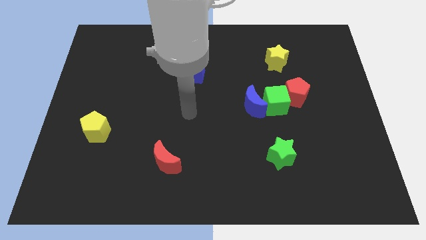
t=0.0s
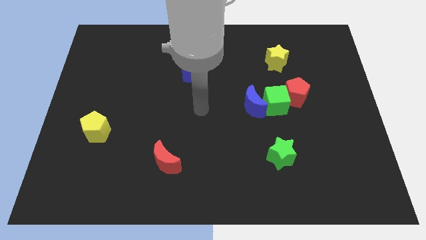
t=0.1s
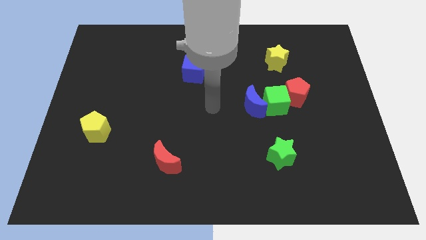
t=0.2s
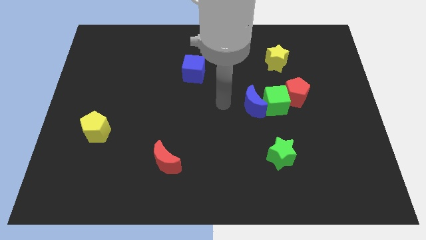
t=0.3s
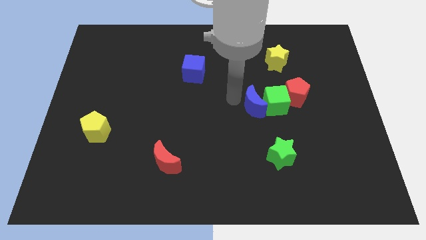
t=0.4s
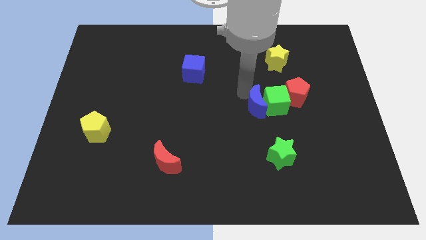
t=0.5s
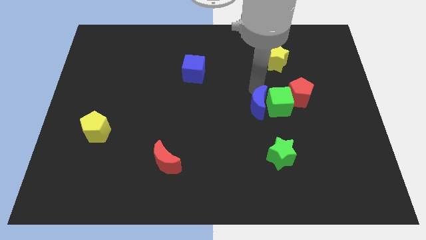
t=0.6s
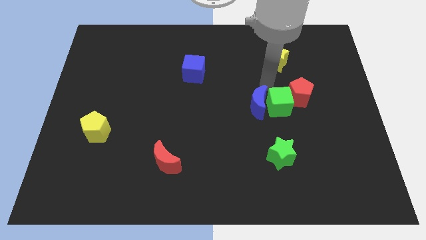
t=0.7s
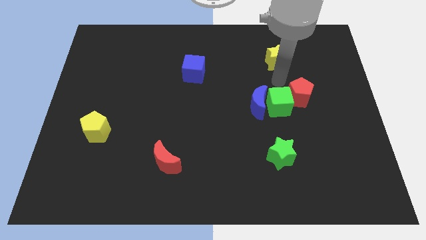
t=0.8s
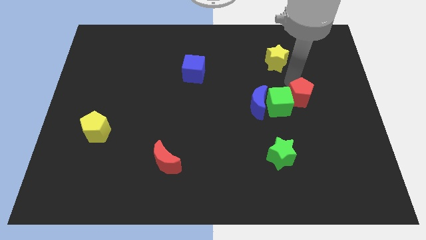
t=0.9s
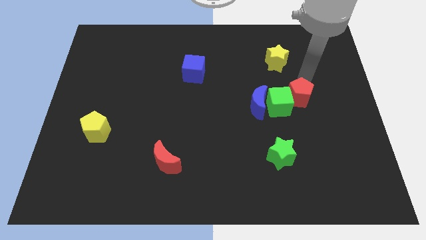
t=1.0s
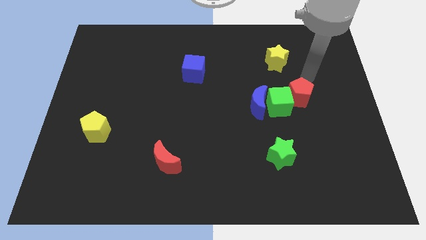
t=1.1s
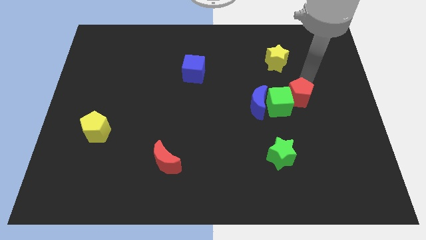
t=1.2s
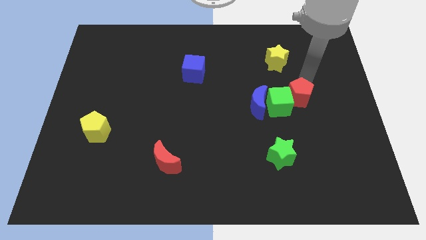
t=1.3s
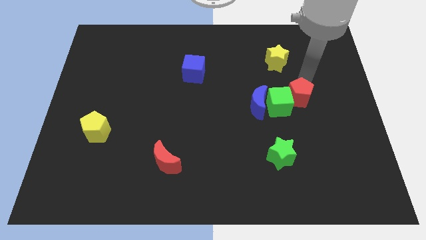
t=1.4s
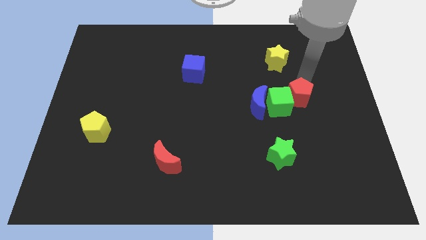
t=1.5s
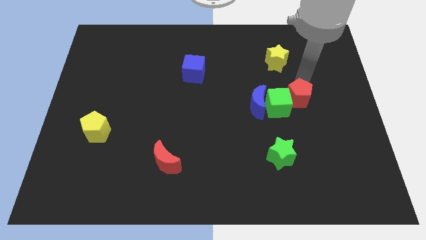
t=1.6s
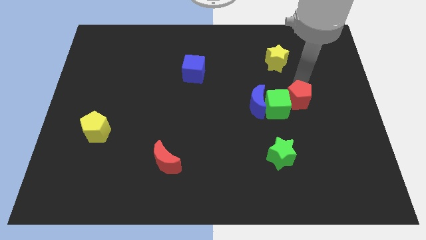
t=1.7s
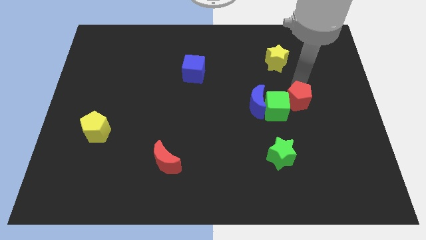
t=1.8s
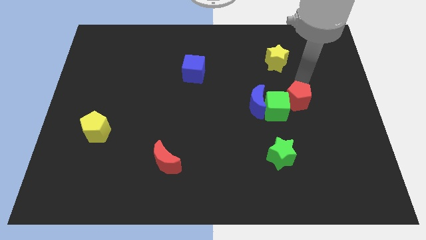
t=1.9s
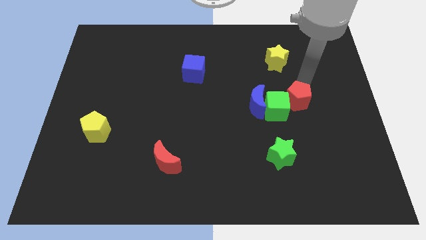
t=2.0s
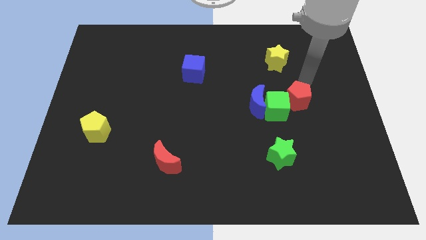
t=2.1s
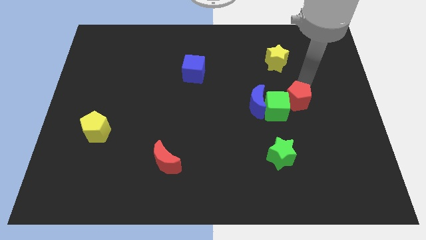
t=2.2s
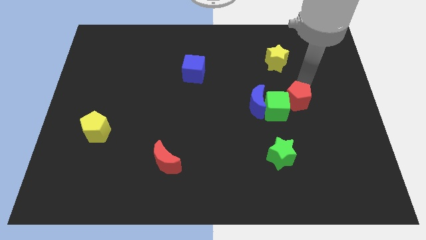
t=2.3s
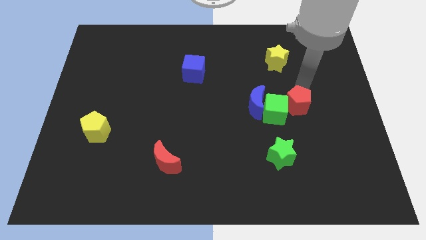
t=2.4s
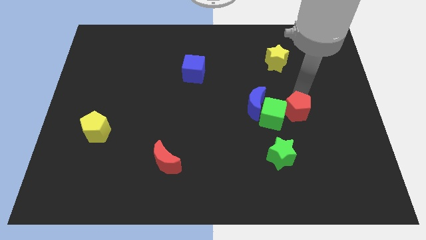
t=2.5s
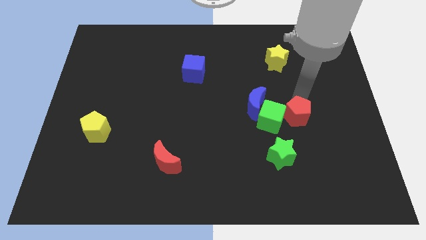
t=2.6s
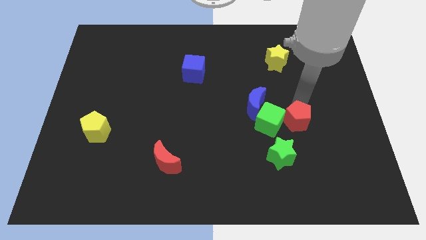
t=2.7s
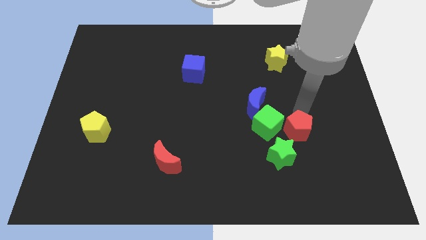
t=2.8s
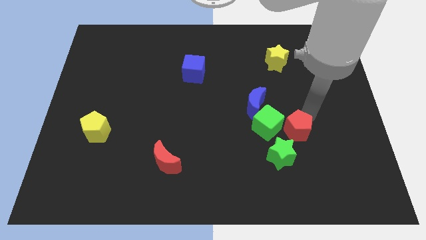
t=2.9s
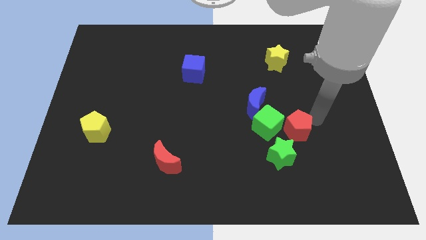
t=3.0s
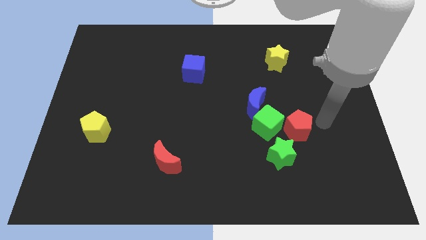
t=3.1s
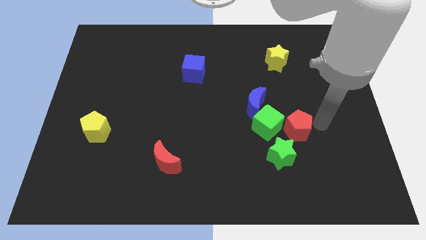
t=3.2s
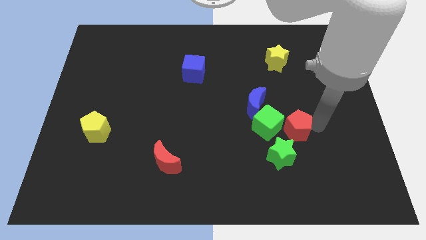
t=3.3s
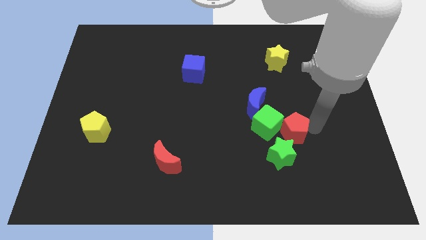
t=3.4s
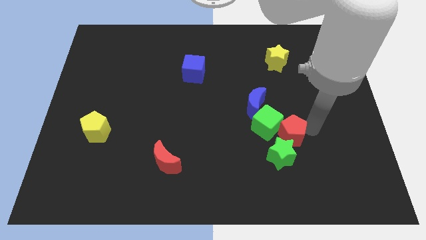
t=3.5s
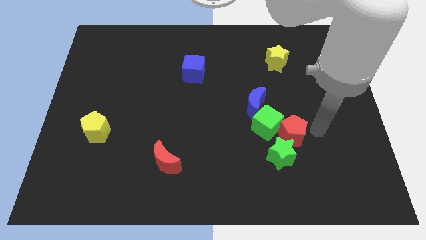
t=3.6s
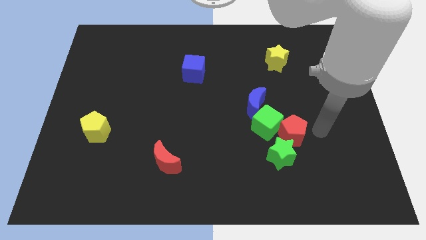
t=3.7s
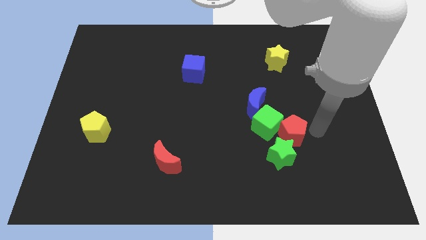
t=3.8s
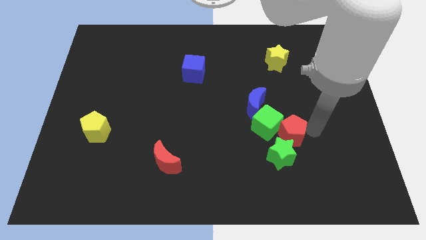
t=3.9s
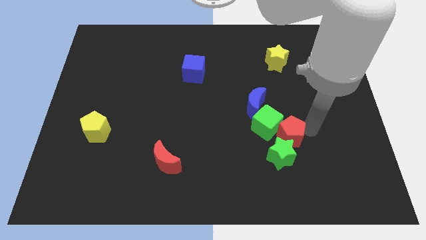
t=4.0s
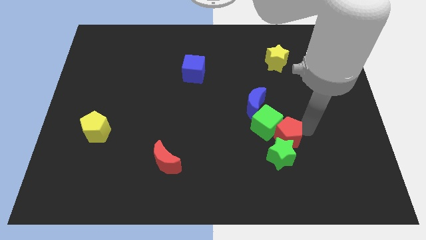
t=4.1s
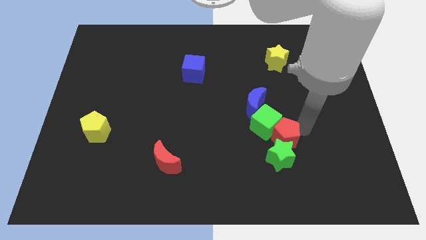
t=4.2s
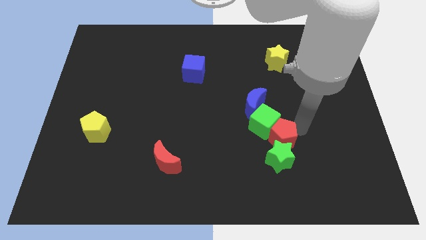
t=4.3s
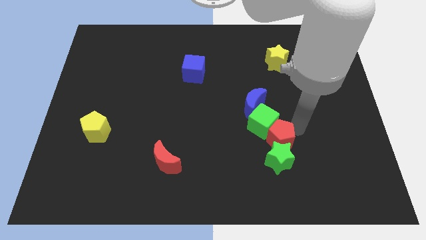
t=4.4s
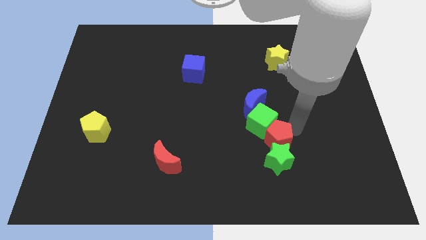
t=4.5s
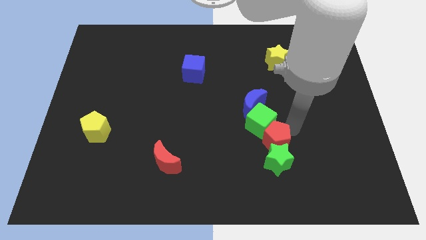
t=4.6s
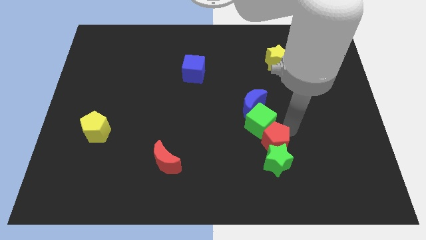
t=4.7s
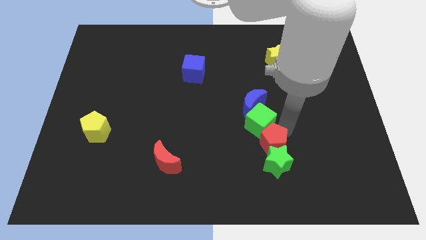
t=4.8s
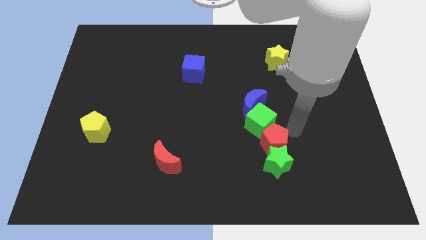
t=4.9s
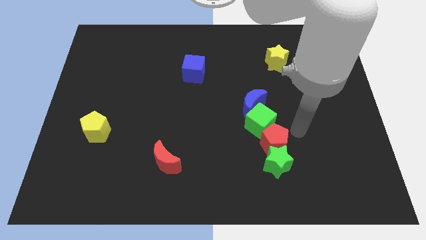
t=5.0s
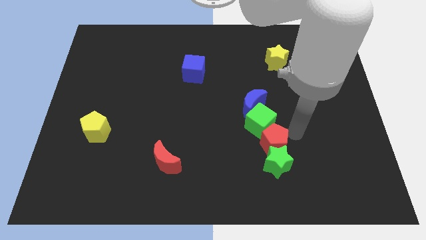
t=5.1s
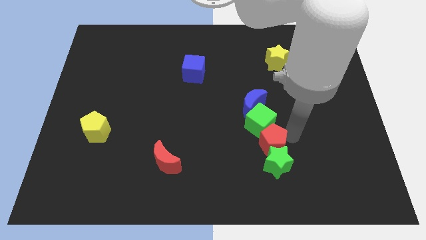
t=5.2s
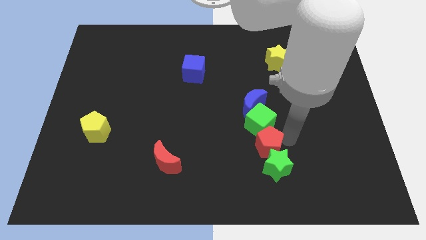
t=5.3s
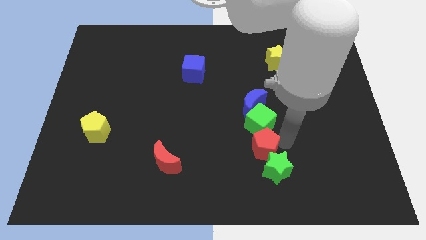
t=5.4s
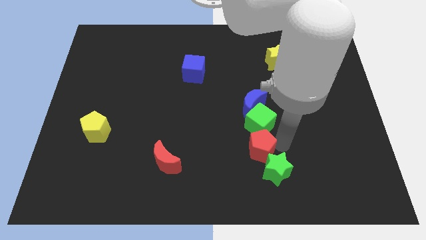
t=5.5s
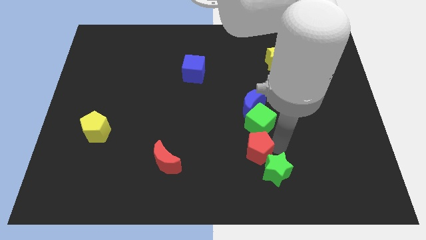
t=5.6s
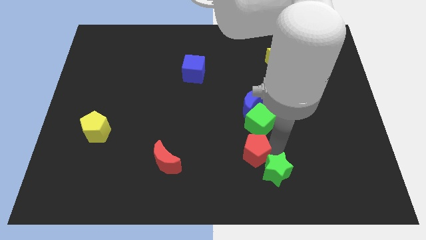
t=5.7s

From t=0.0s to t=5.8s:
move the red pentagon just left of the green star

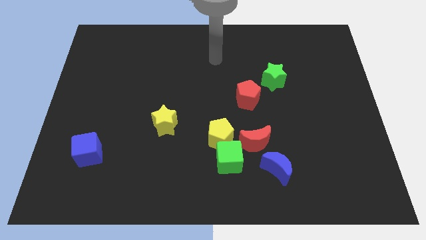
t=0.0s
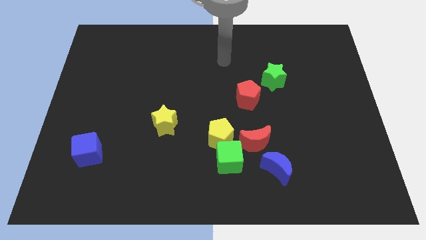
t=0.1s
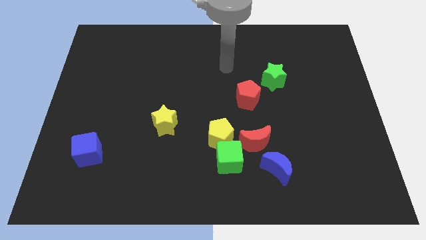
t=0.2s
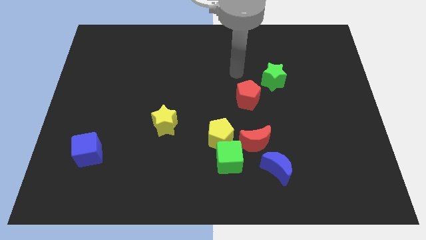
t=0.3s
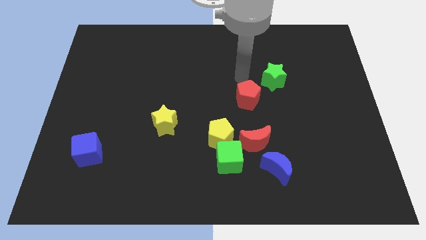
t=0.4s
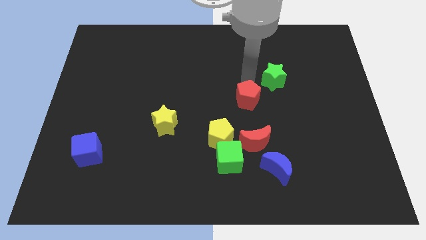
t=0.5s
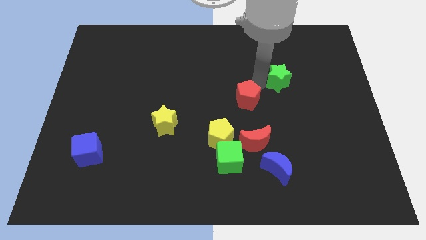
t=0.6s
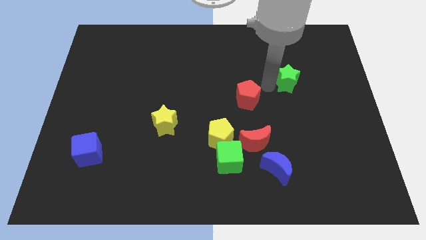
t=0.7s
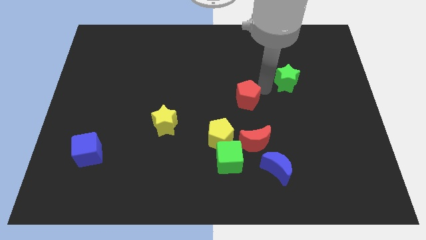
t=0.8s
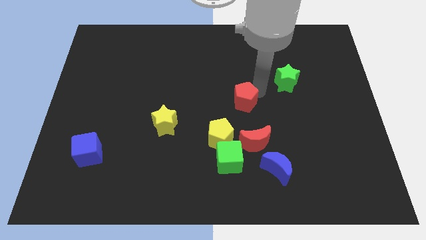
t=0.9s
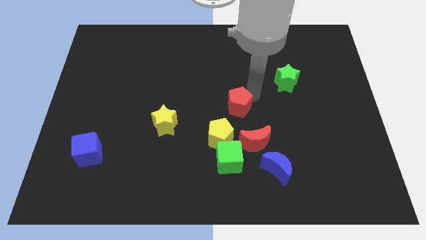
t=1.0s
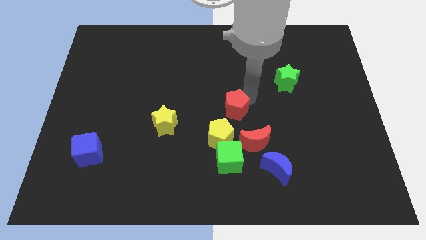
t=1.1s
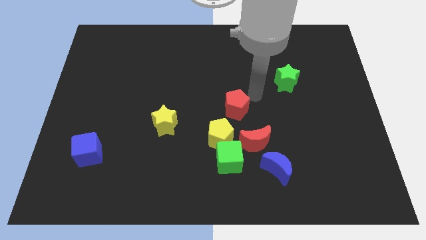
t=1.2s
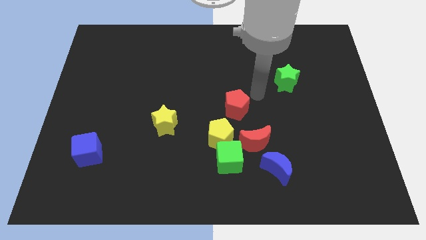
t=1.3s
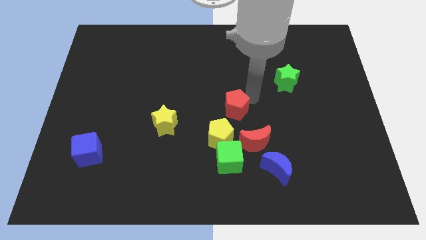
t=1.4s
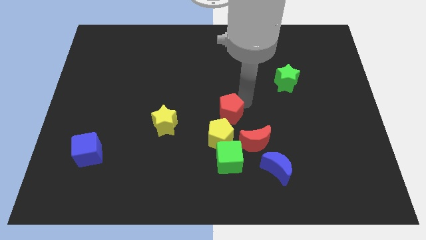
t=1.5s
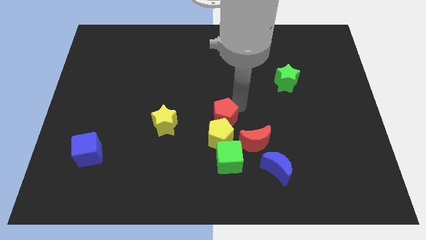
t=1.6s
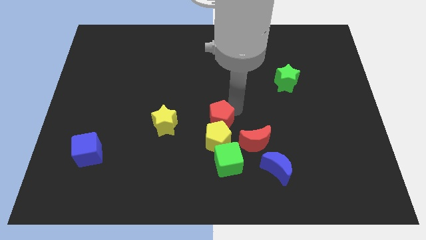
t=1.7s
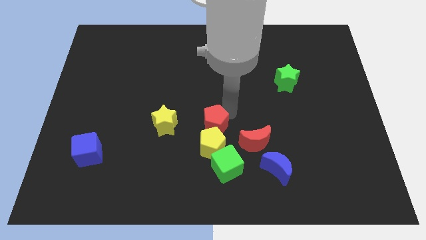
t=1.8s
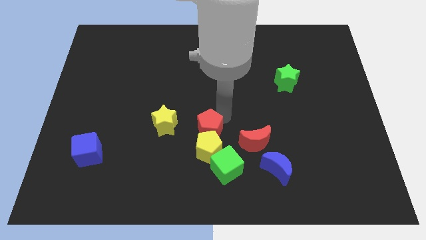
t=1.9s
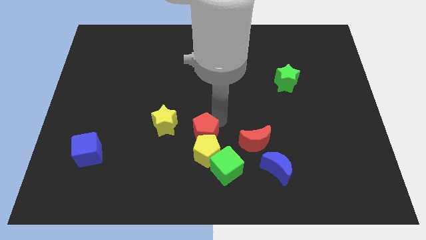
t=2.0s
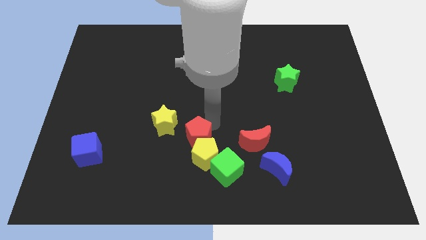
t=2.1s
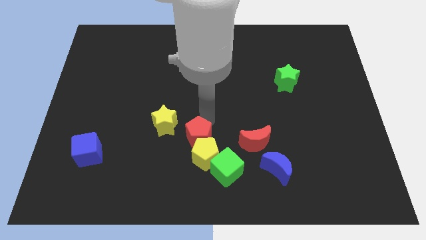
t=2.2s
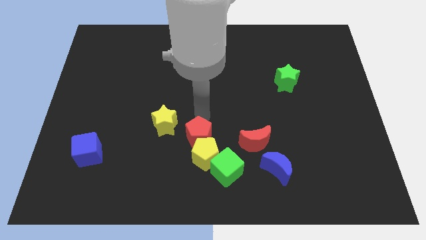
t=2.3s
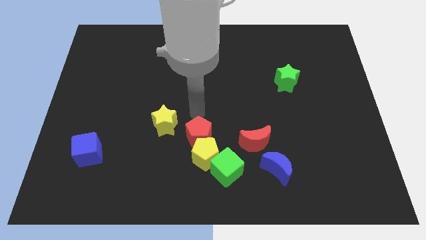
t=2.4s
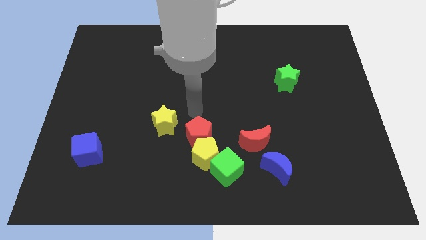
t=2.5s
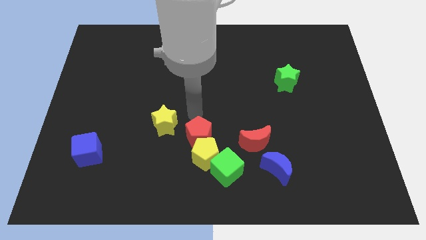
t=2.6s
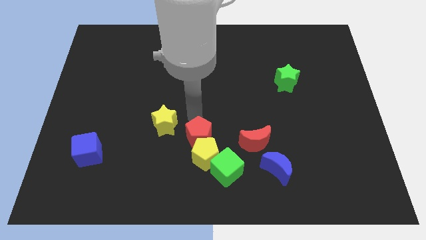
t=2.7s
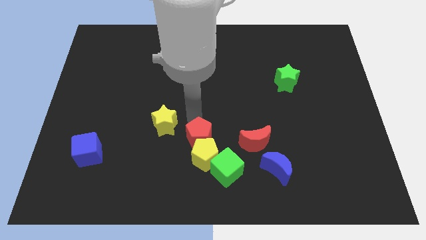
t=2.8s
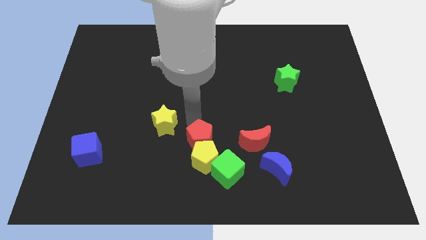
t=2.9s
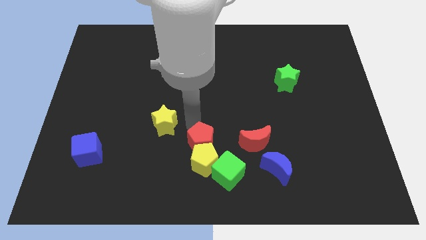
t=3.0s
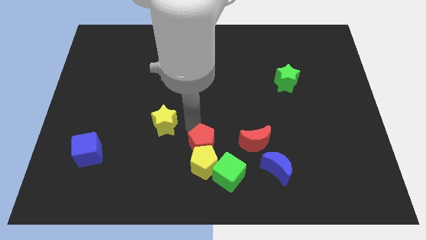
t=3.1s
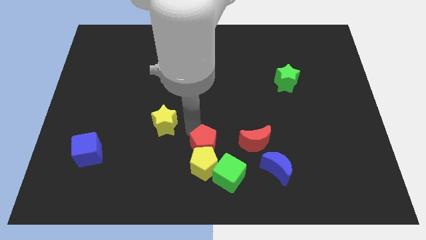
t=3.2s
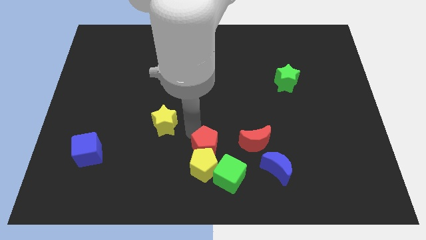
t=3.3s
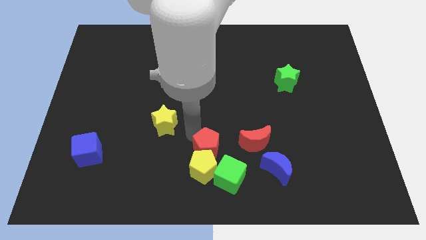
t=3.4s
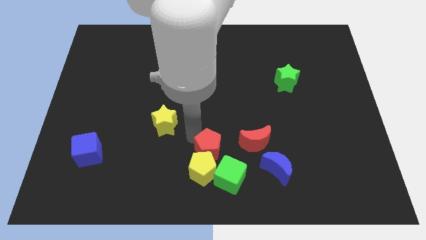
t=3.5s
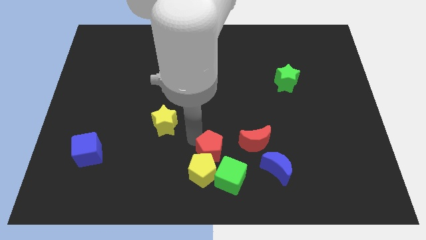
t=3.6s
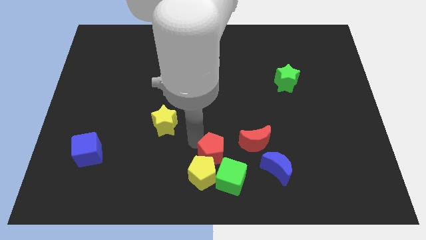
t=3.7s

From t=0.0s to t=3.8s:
slide the red pentagon diagonally down and to the left of the red moon
